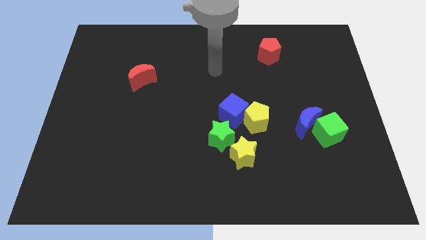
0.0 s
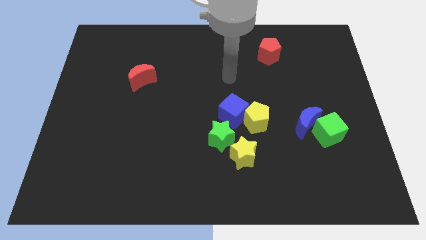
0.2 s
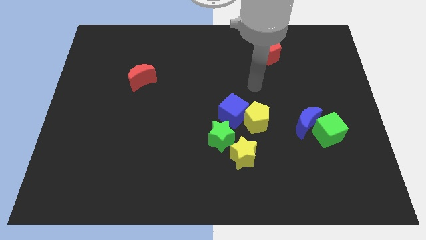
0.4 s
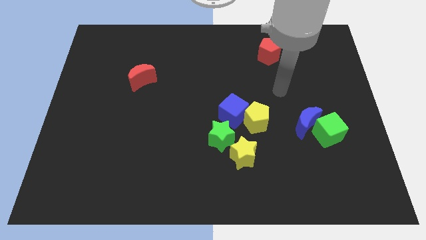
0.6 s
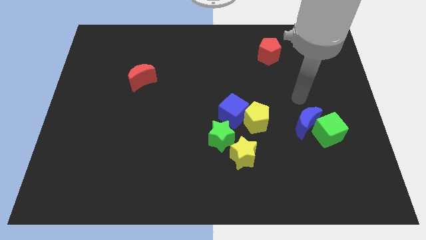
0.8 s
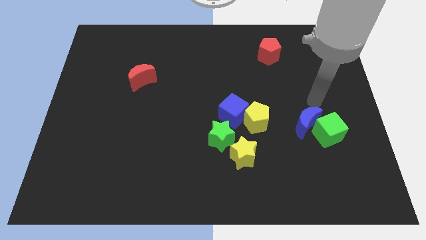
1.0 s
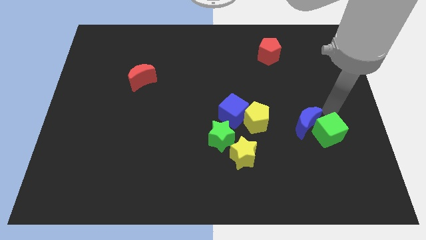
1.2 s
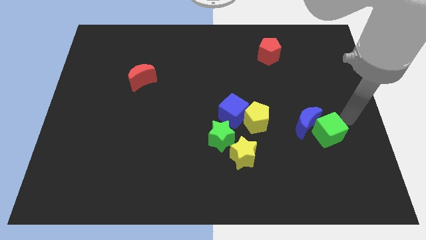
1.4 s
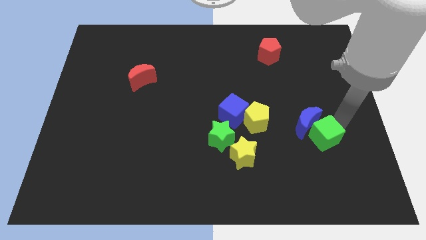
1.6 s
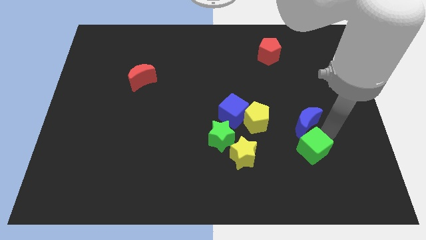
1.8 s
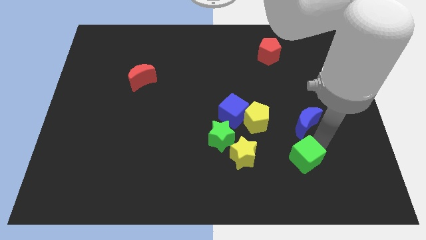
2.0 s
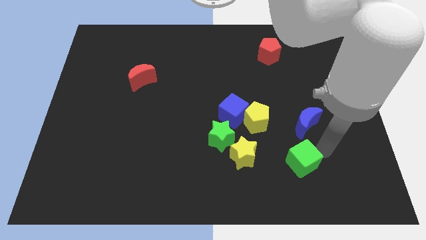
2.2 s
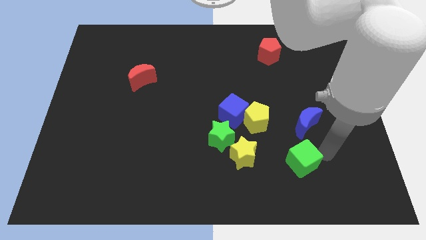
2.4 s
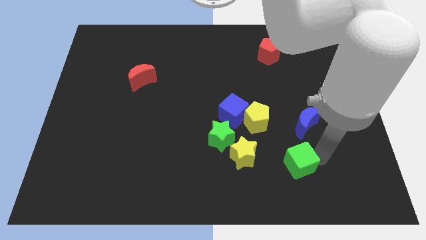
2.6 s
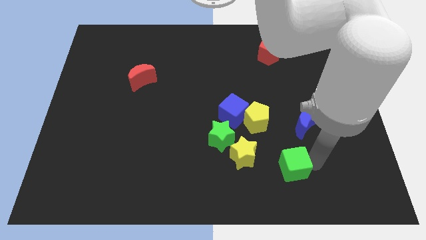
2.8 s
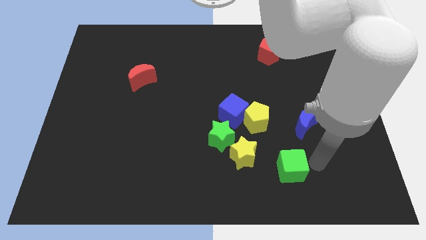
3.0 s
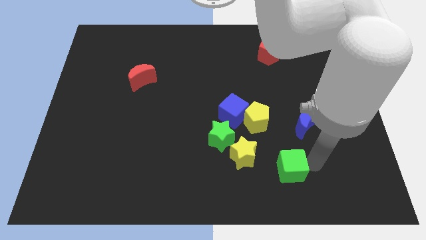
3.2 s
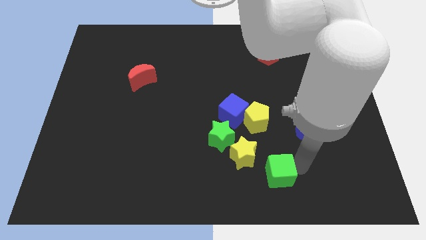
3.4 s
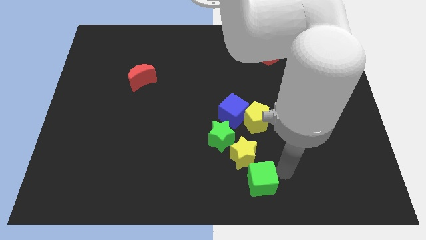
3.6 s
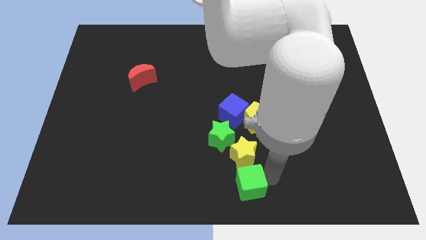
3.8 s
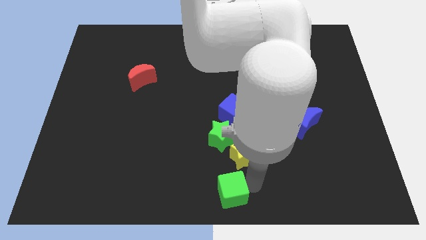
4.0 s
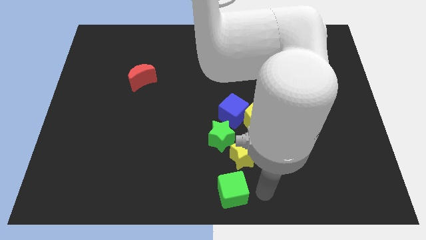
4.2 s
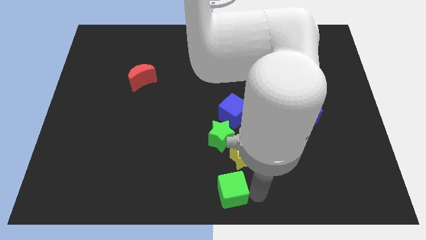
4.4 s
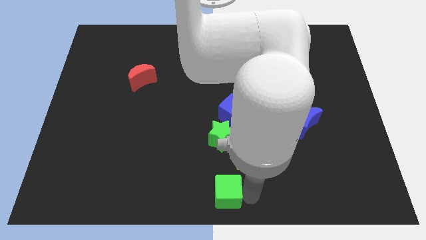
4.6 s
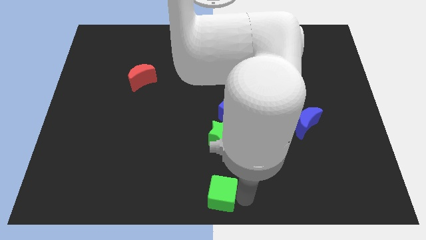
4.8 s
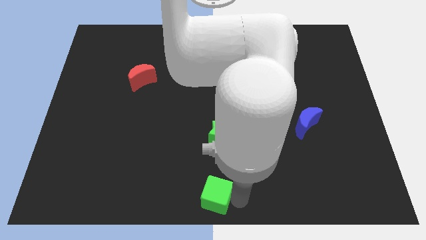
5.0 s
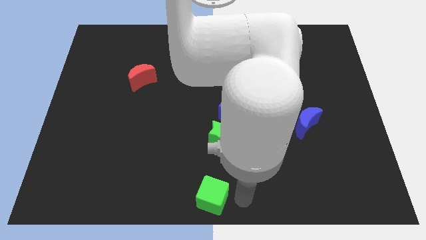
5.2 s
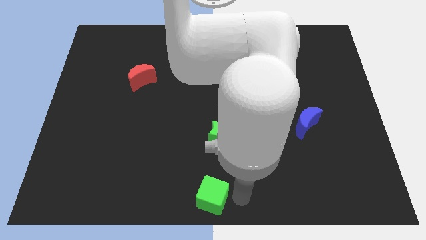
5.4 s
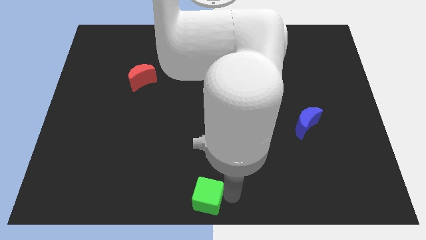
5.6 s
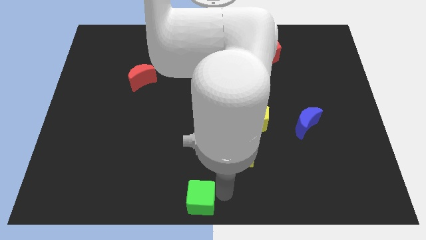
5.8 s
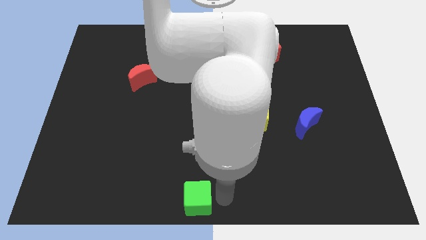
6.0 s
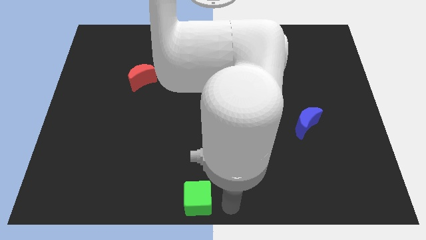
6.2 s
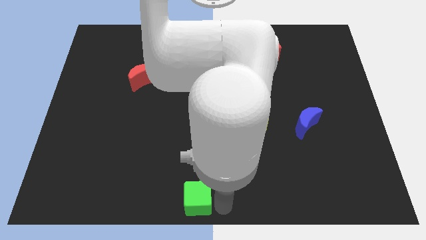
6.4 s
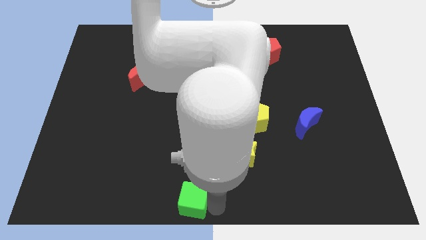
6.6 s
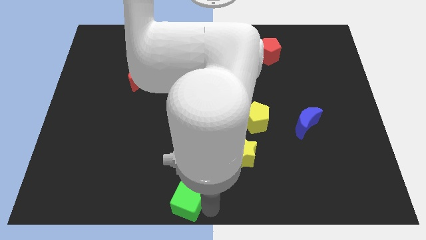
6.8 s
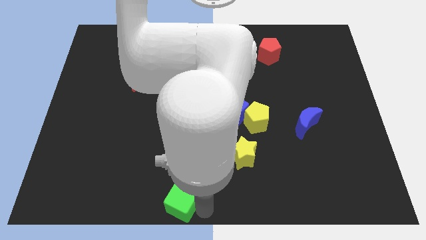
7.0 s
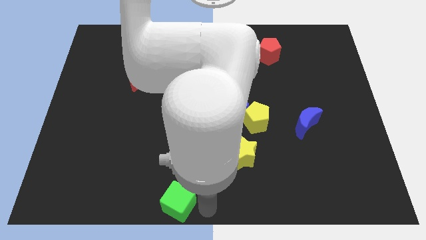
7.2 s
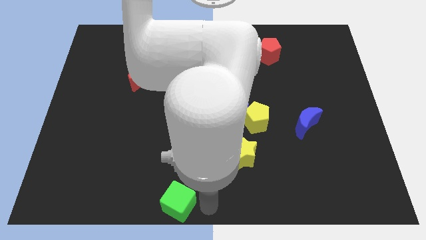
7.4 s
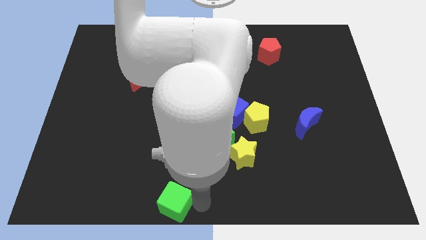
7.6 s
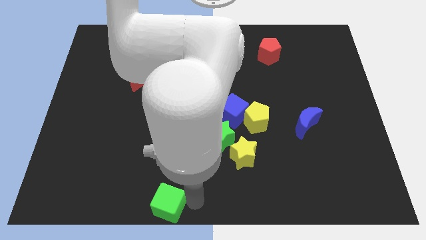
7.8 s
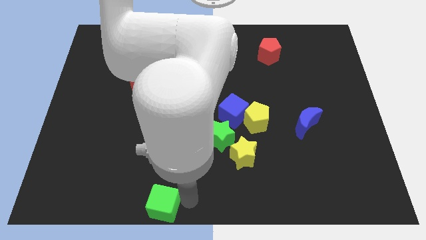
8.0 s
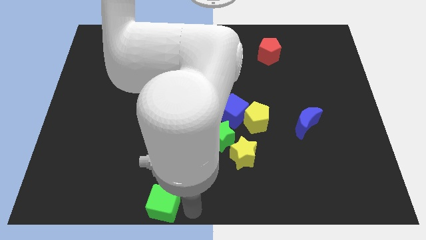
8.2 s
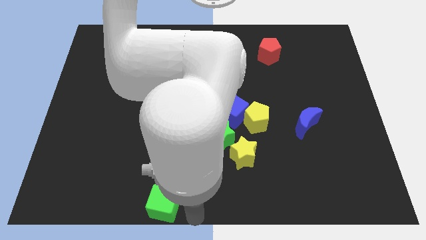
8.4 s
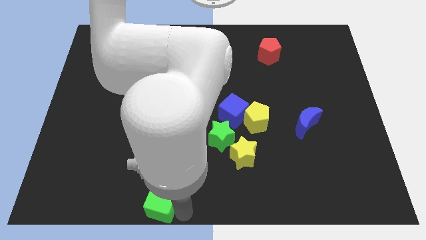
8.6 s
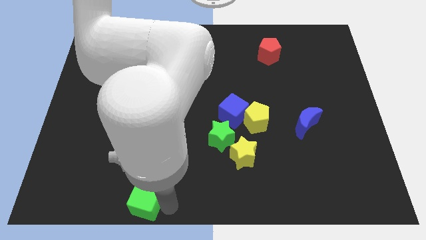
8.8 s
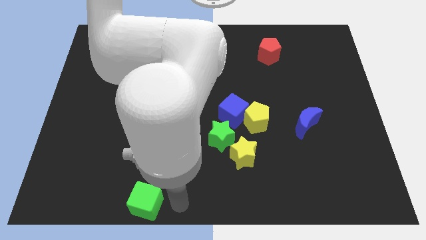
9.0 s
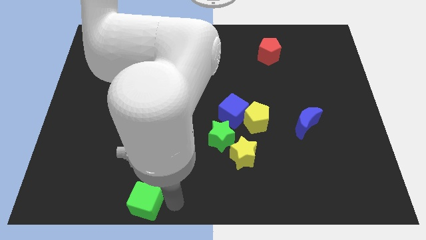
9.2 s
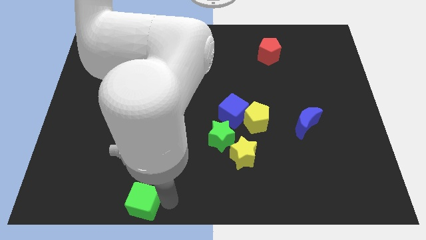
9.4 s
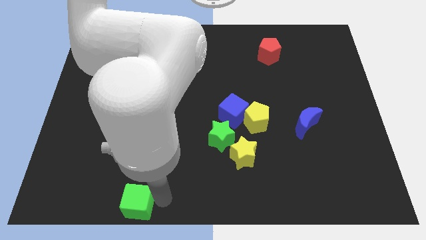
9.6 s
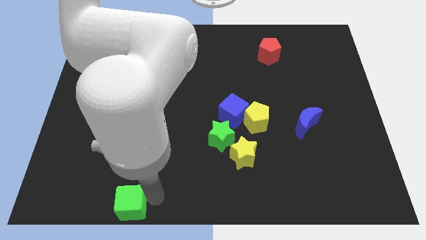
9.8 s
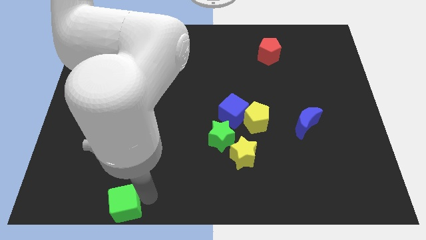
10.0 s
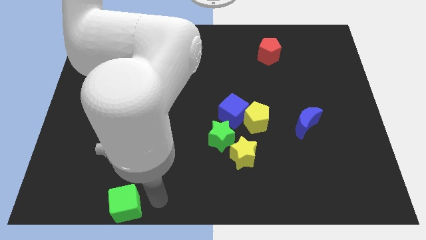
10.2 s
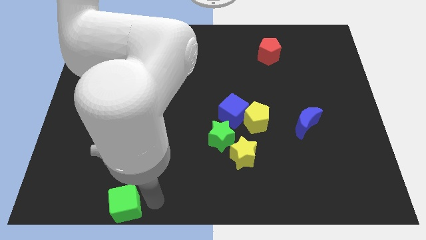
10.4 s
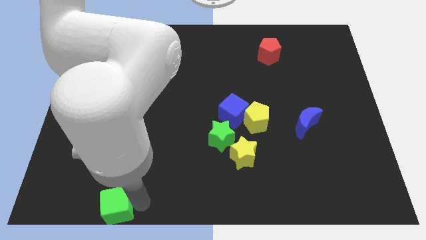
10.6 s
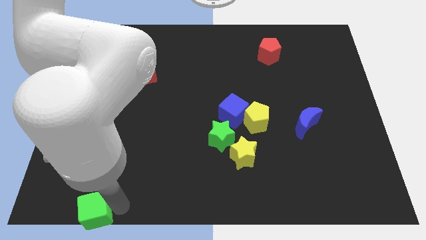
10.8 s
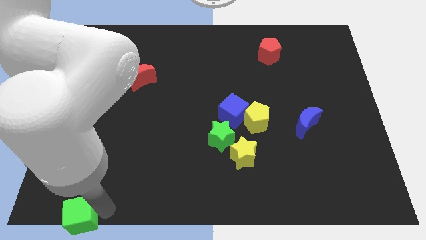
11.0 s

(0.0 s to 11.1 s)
slide the green cube to the bottom left corner

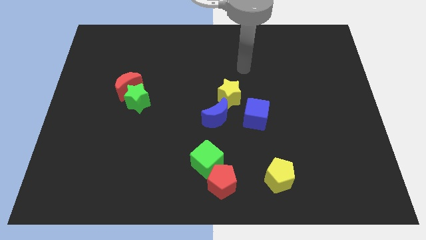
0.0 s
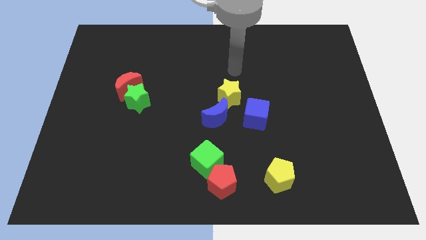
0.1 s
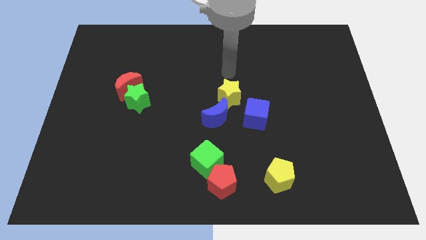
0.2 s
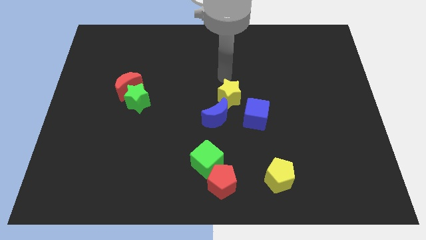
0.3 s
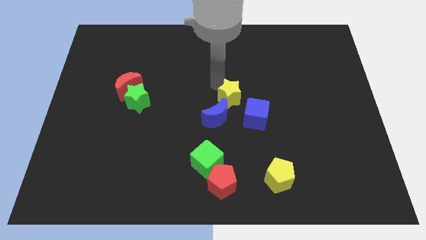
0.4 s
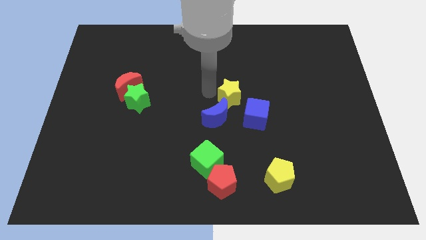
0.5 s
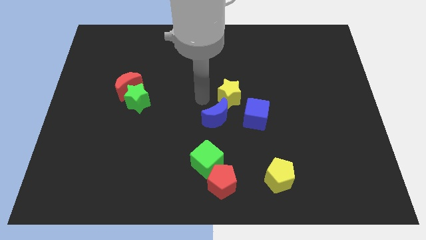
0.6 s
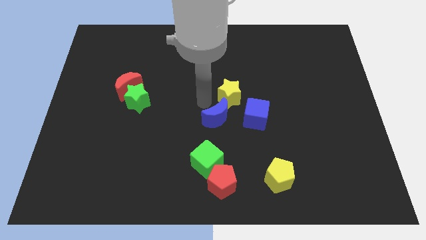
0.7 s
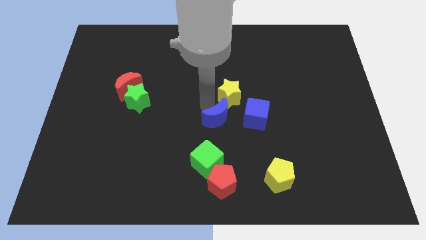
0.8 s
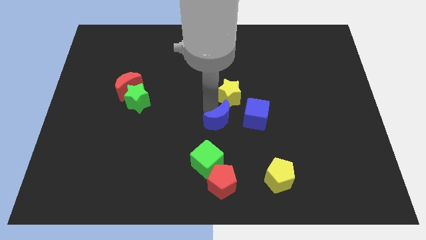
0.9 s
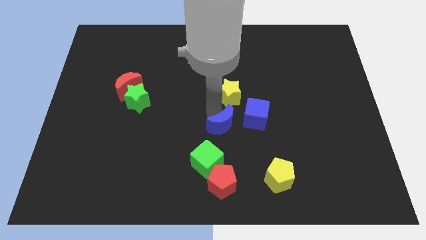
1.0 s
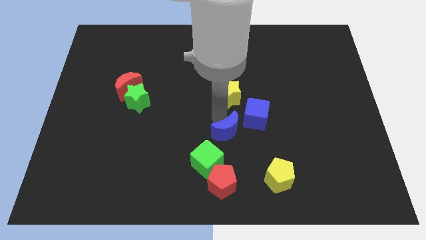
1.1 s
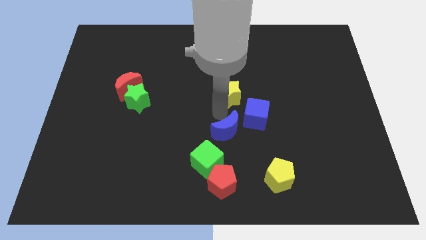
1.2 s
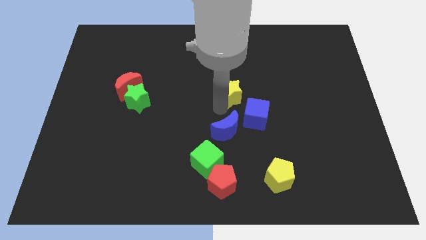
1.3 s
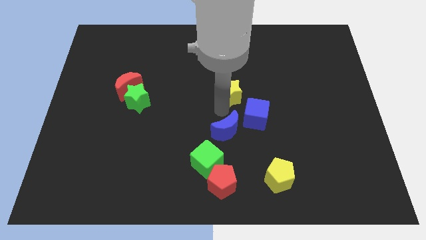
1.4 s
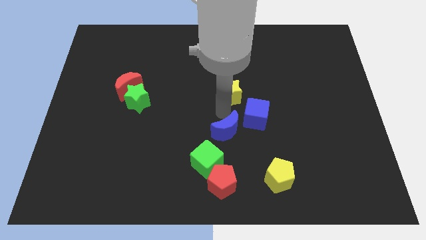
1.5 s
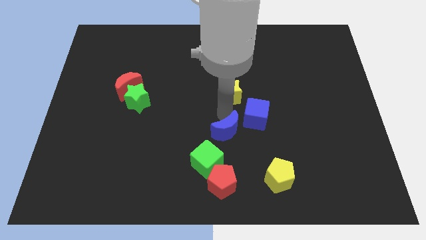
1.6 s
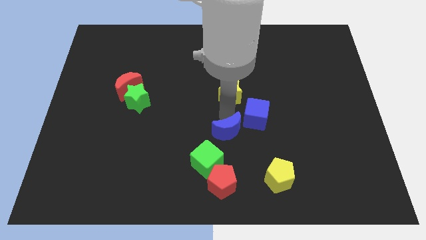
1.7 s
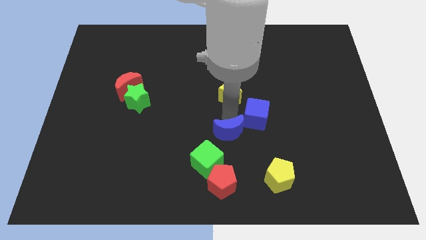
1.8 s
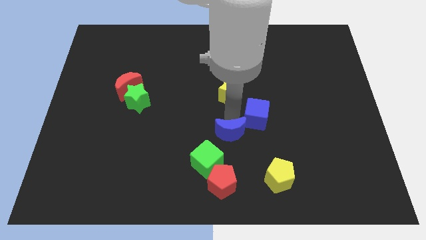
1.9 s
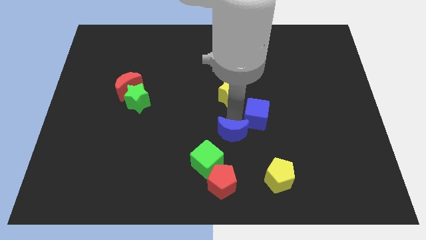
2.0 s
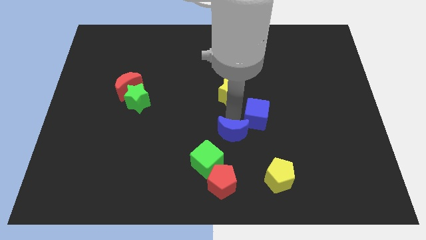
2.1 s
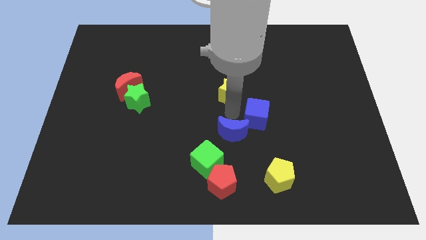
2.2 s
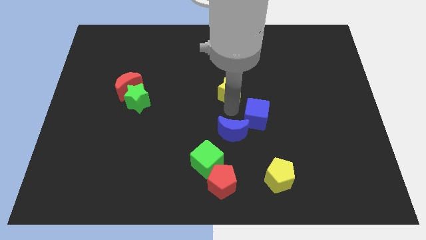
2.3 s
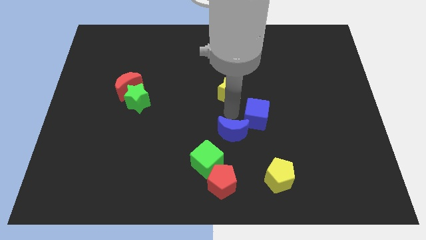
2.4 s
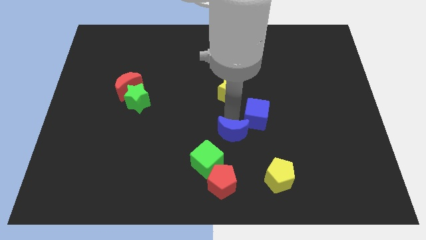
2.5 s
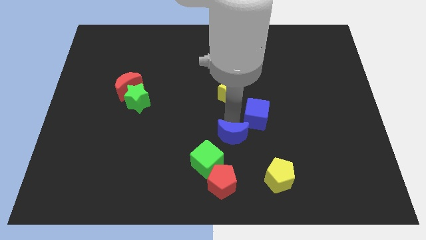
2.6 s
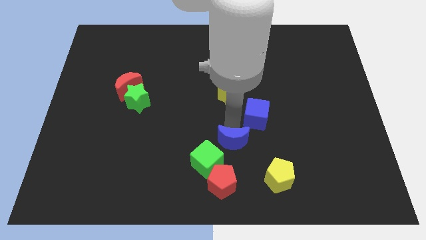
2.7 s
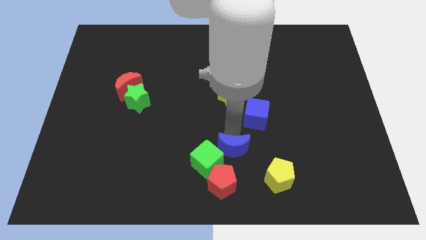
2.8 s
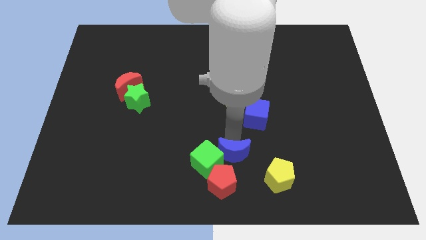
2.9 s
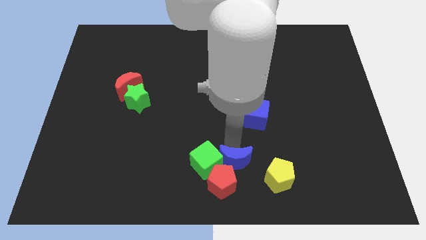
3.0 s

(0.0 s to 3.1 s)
put the blue moon to the bottom
